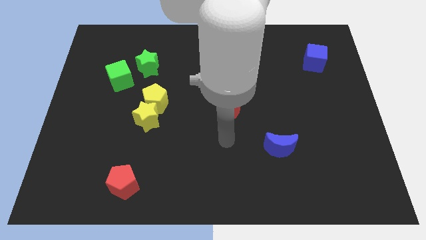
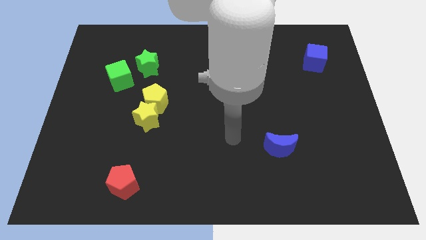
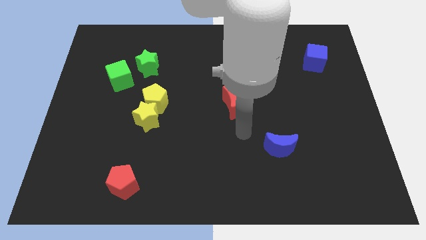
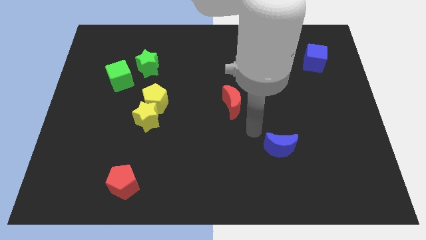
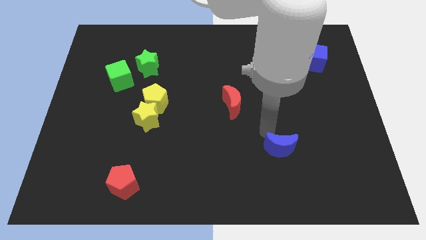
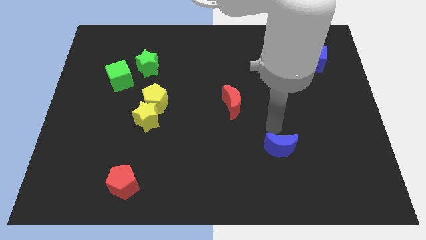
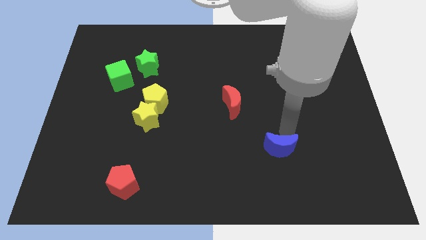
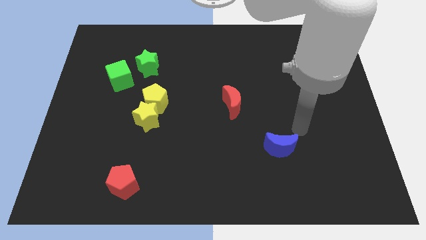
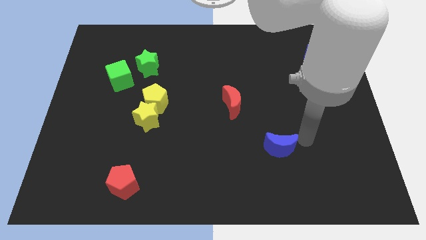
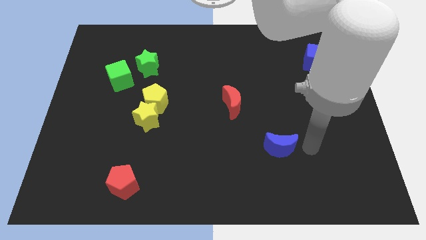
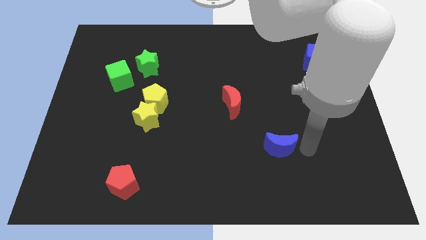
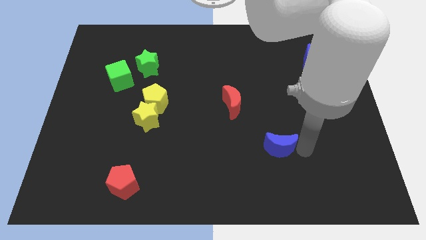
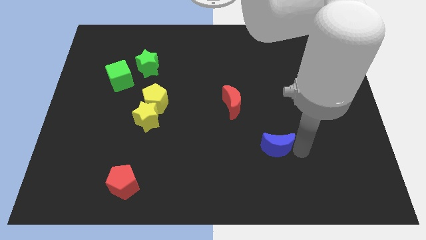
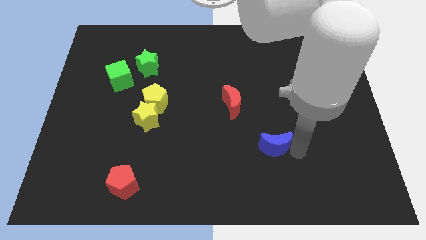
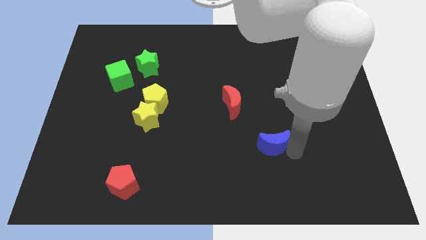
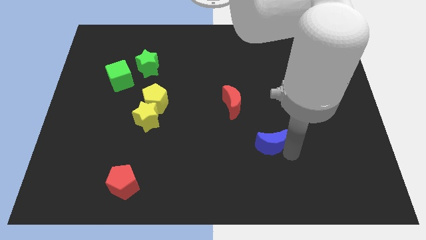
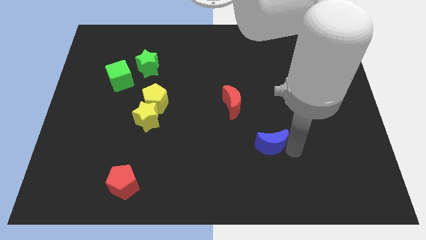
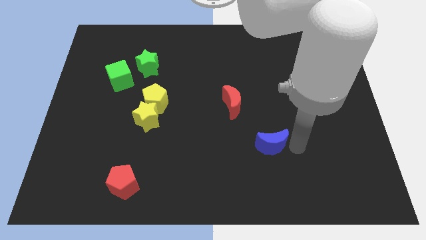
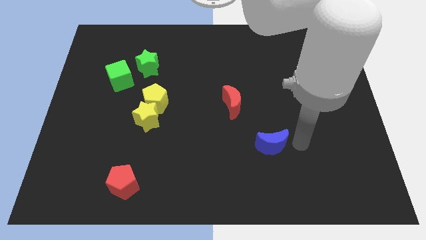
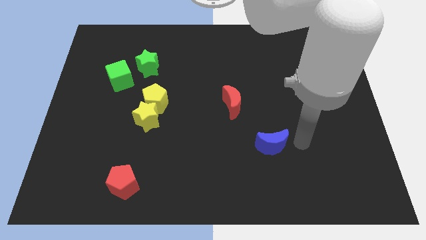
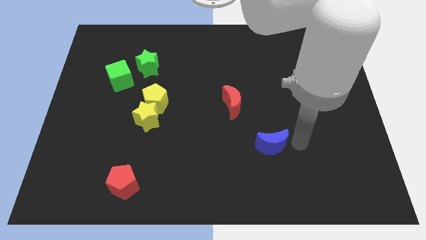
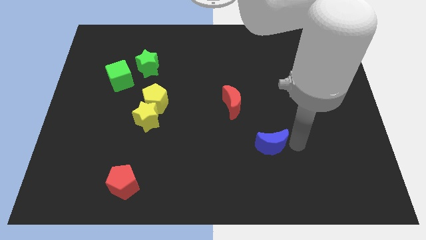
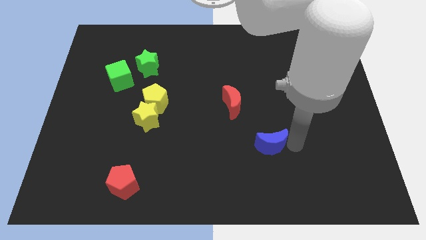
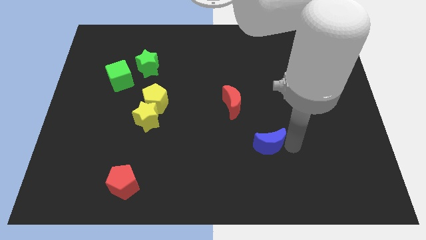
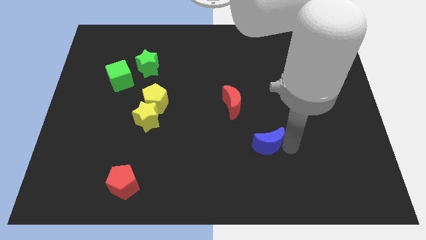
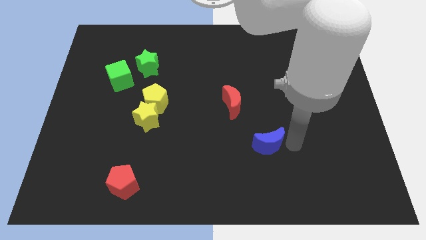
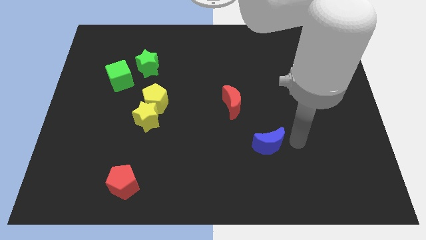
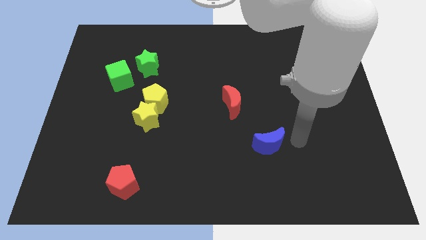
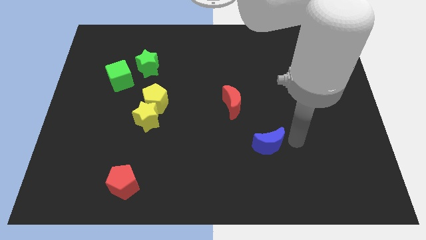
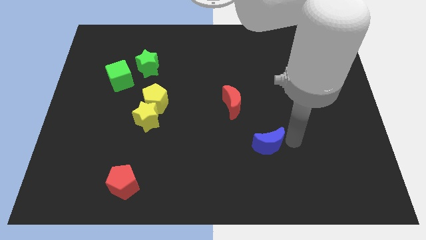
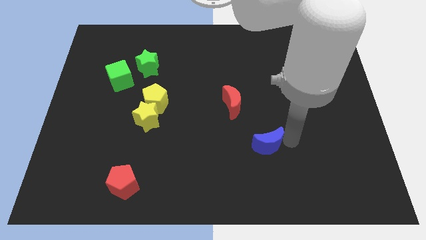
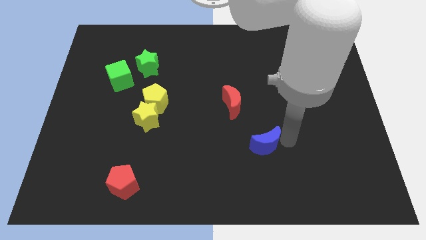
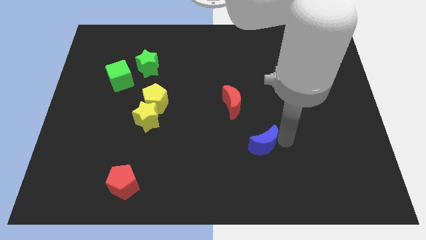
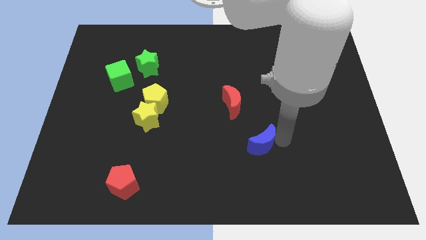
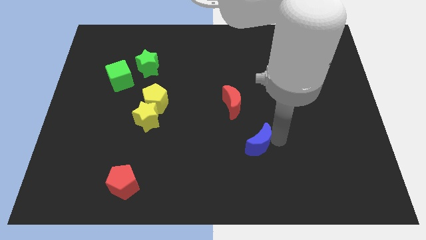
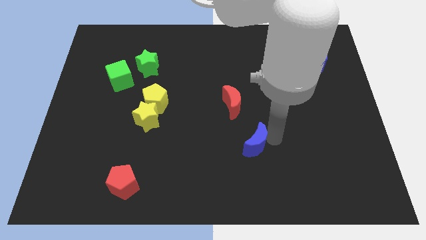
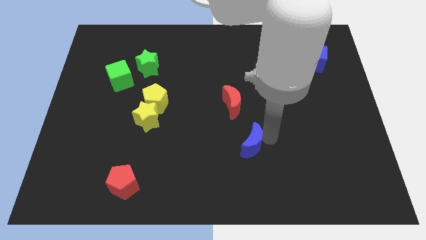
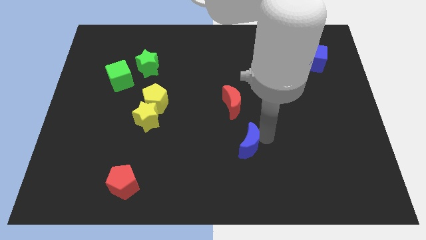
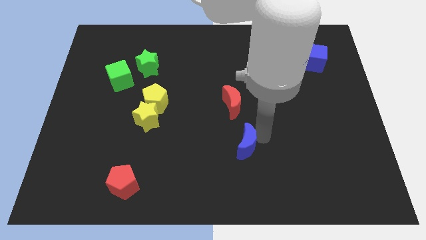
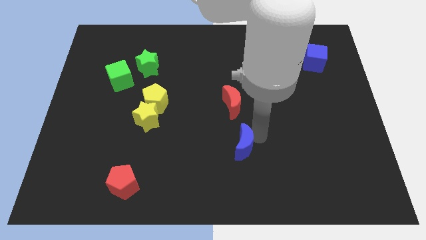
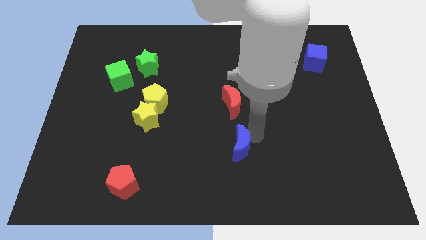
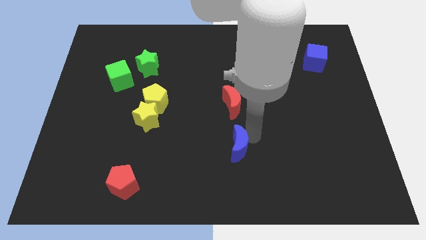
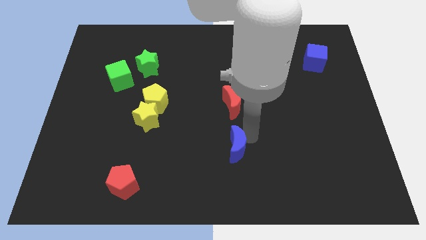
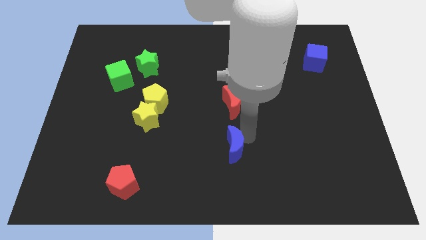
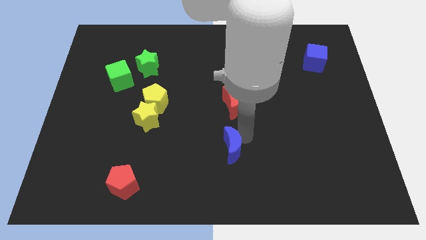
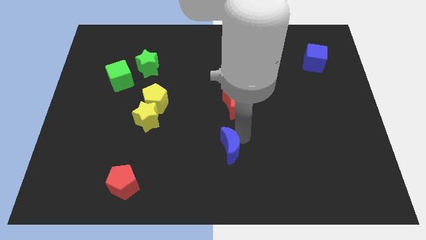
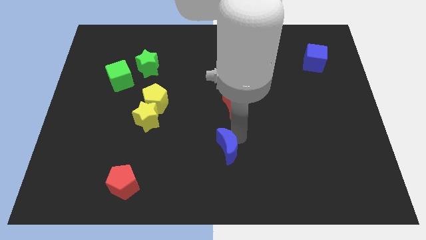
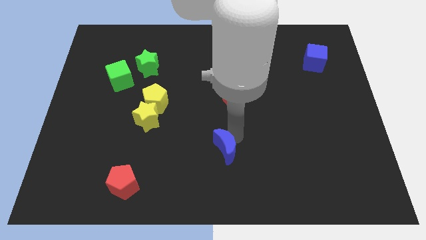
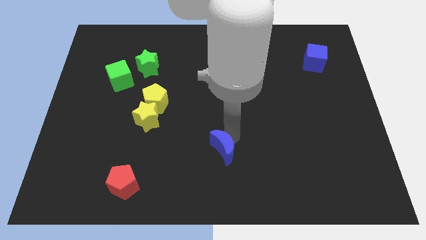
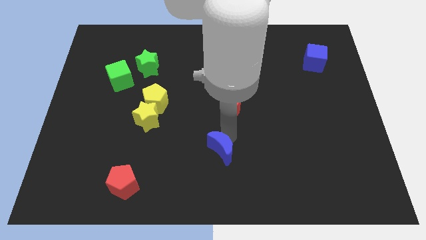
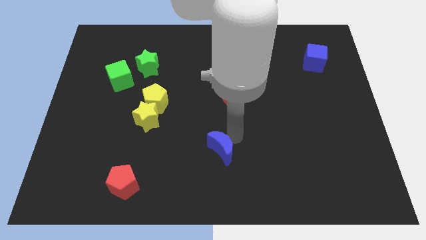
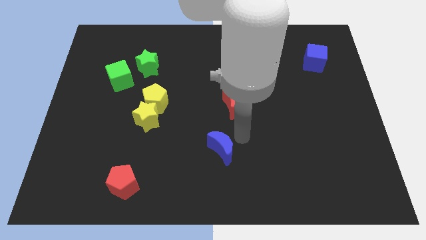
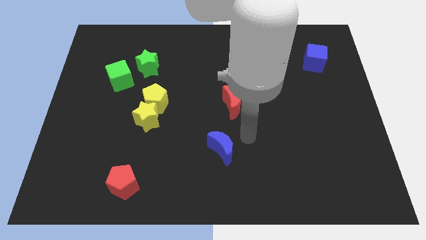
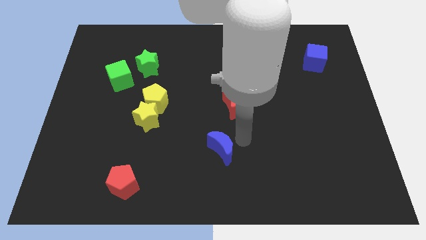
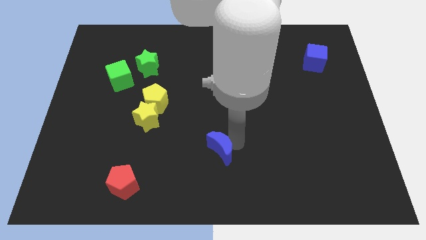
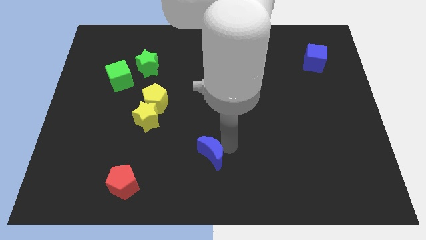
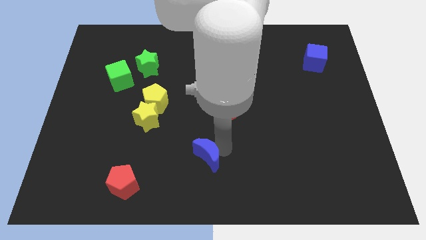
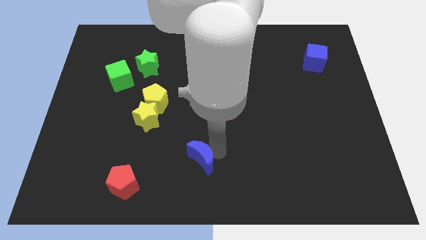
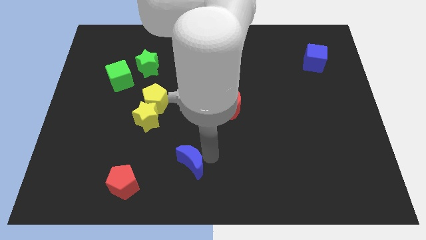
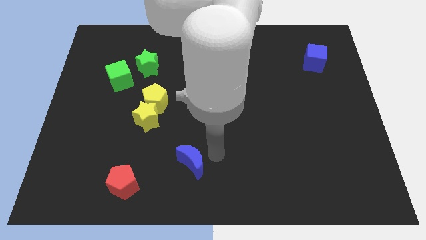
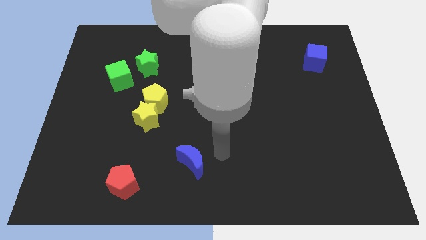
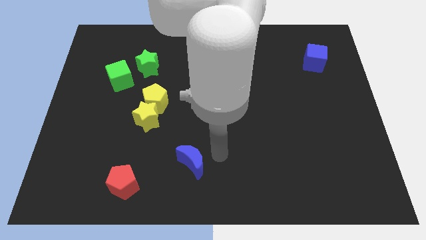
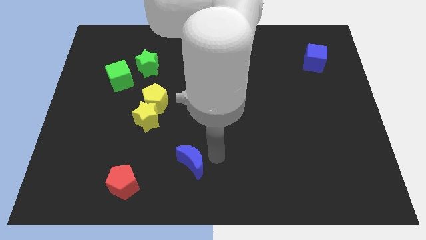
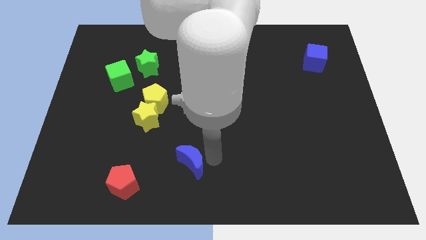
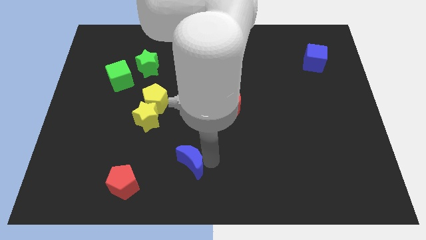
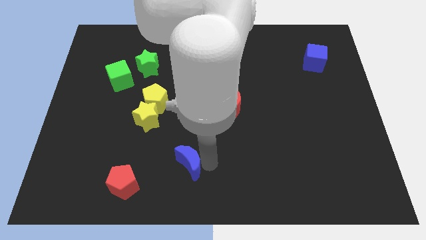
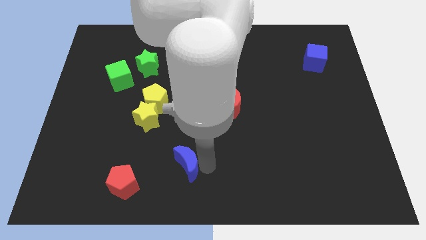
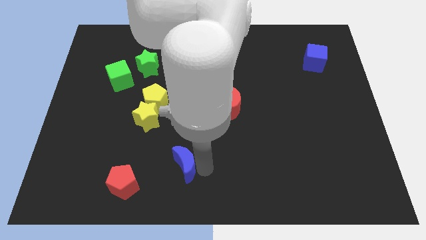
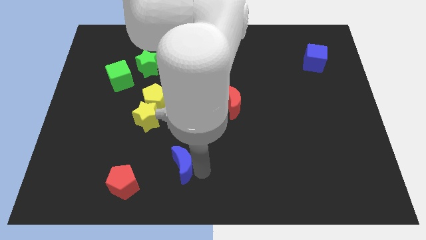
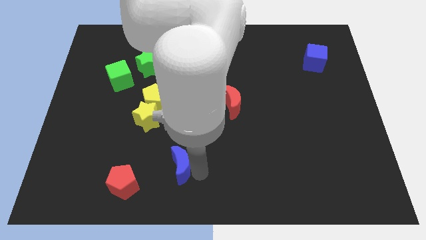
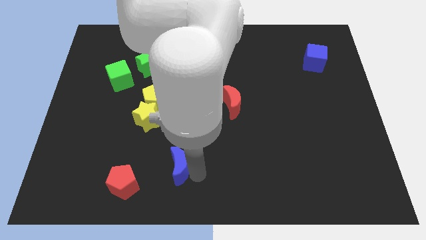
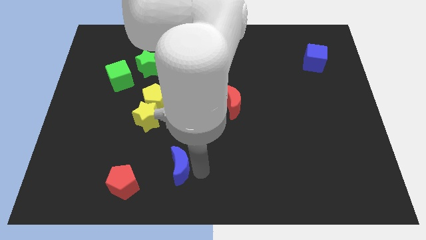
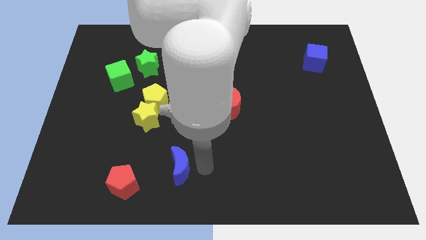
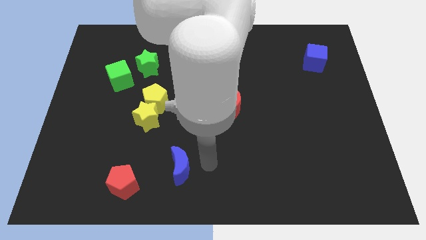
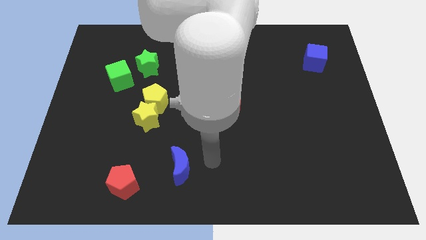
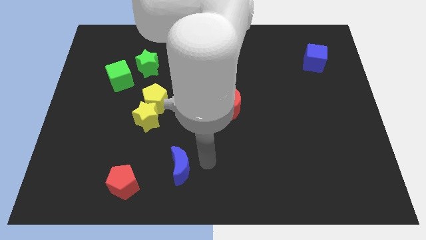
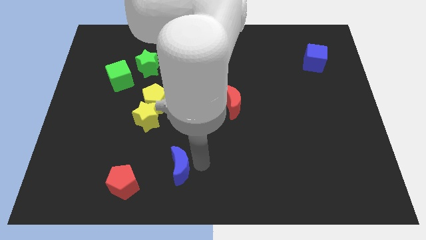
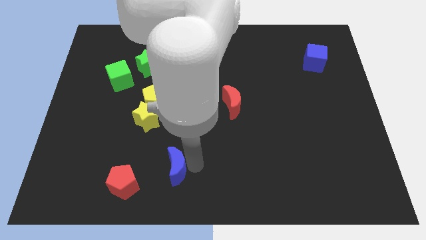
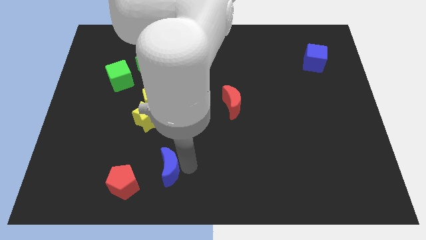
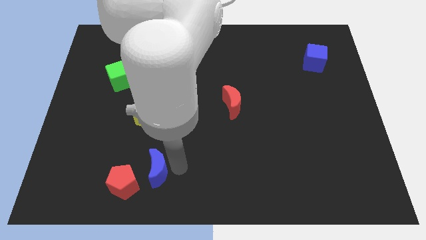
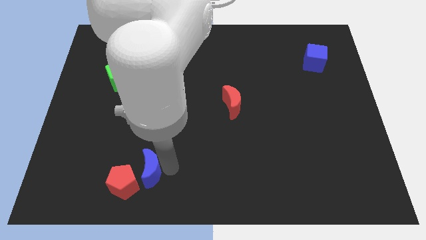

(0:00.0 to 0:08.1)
put the blue moon close to the red pentagon
